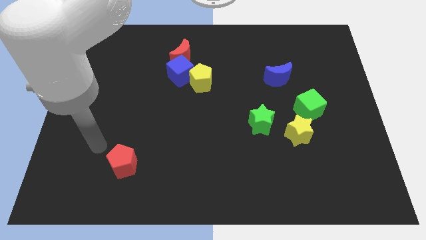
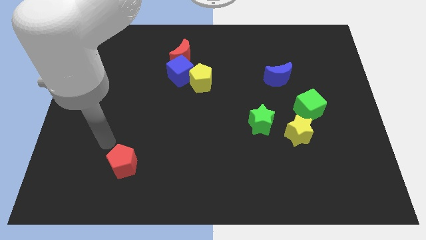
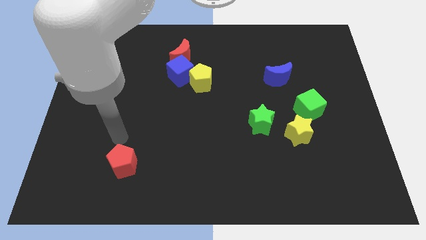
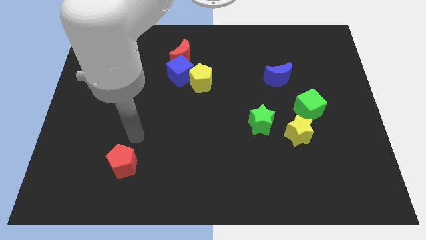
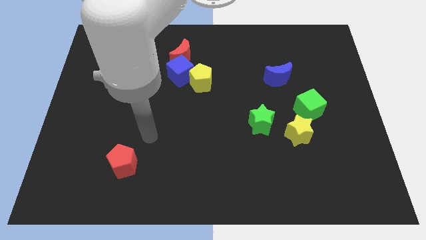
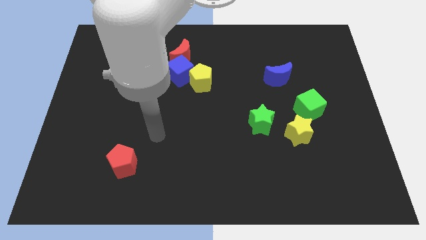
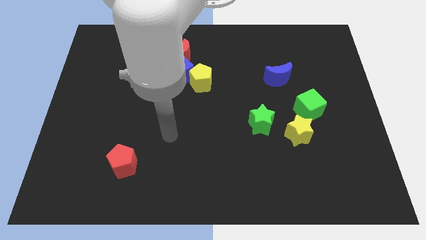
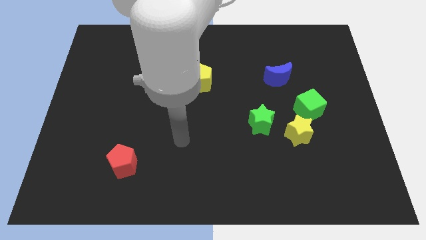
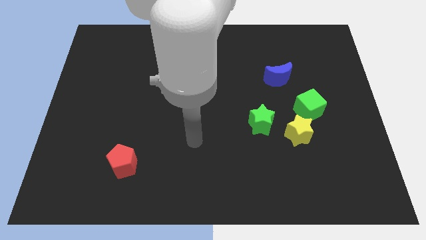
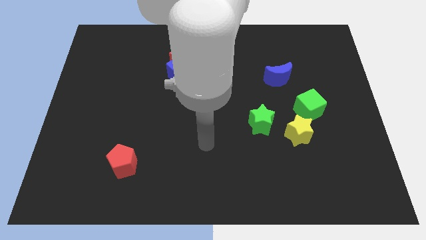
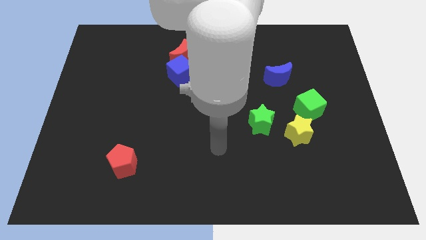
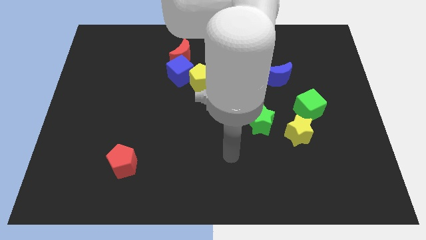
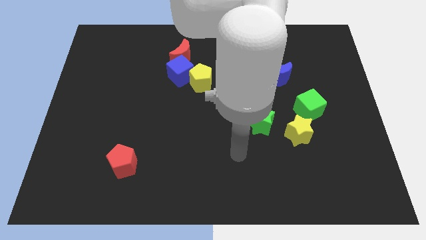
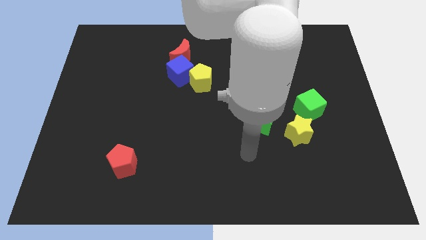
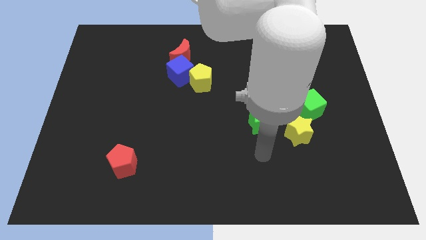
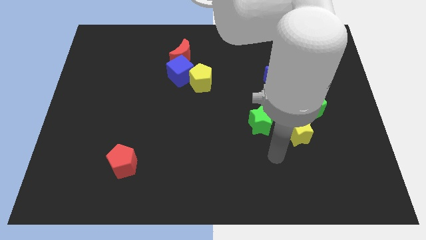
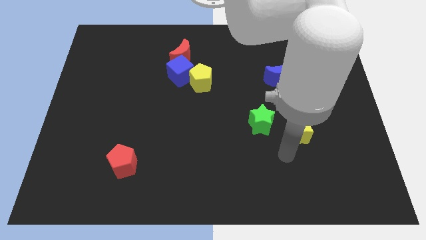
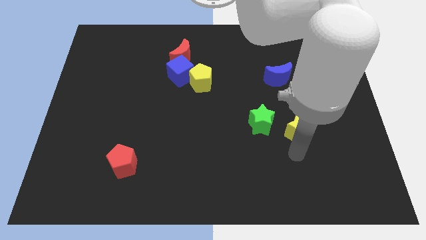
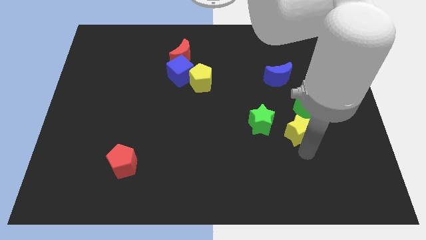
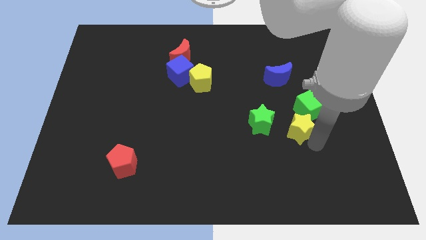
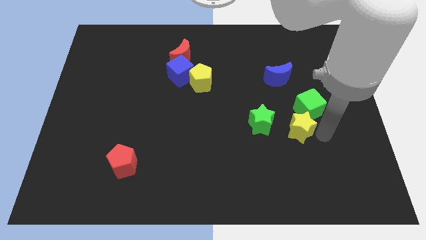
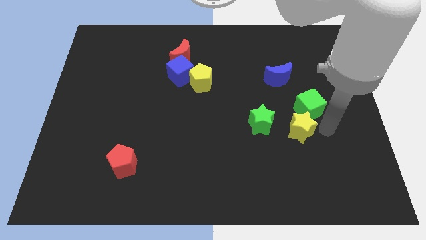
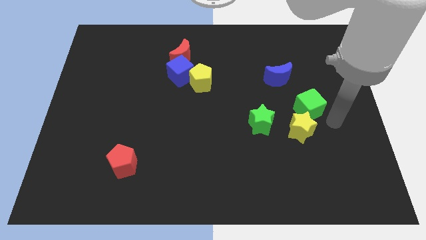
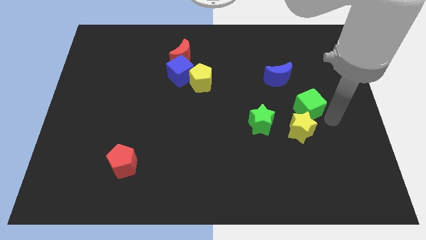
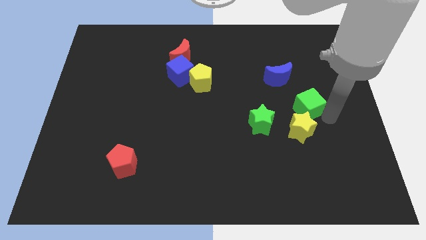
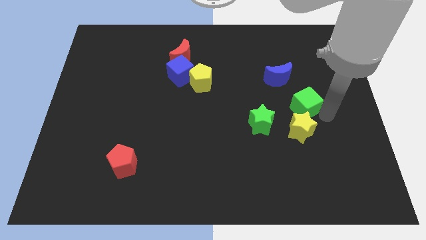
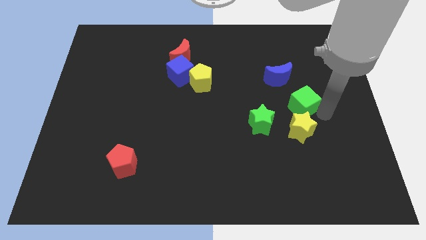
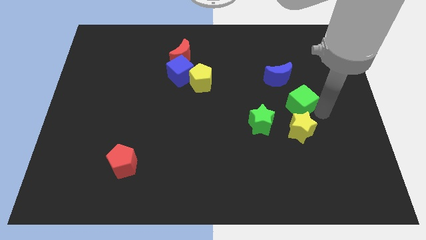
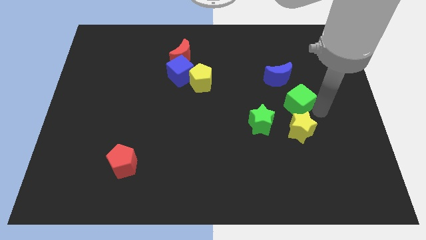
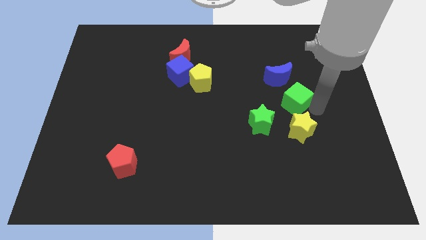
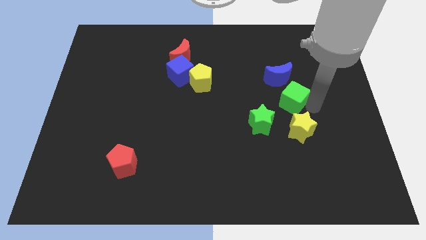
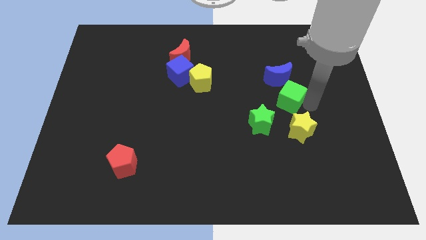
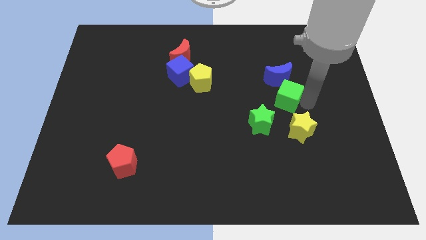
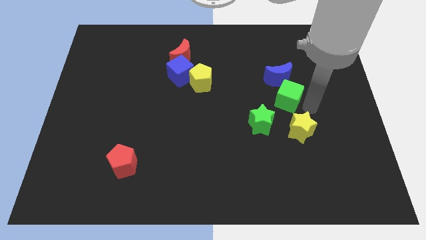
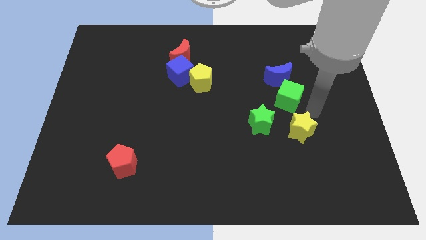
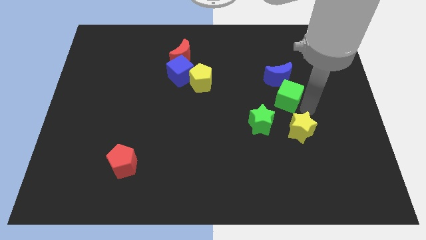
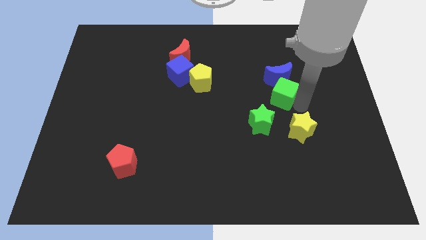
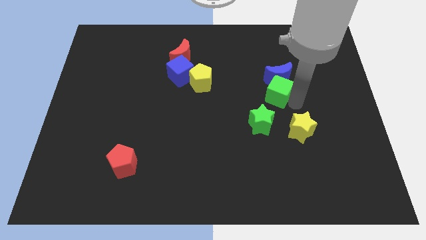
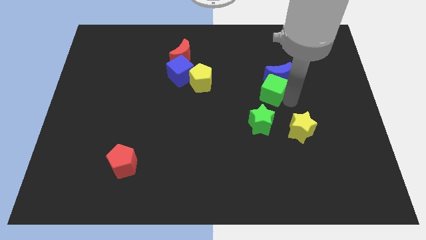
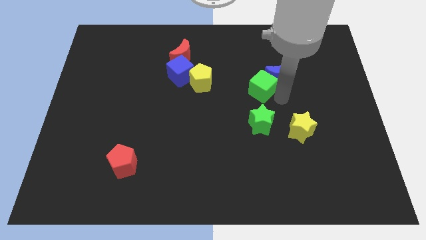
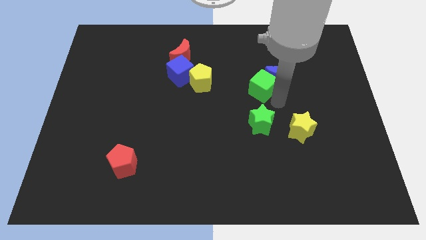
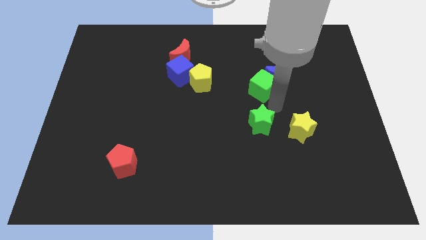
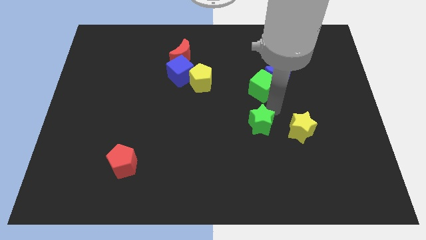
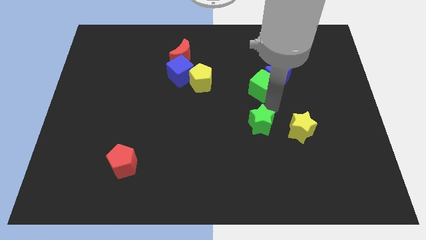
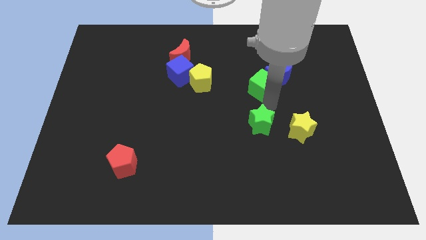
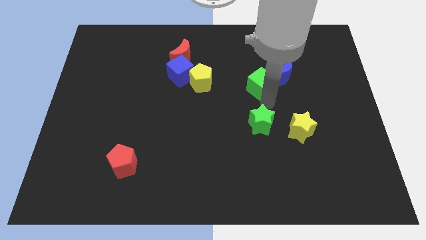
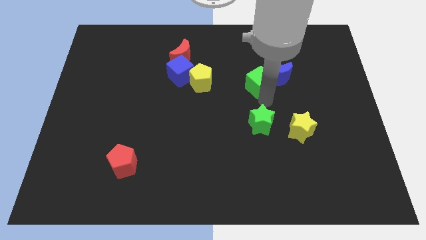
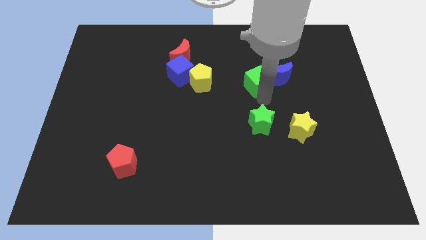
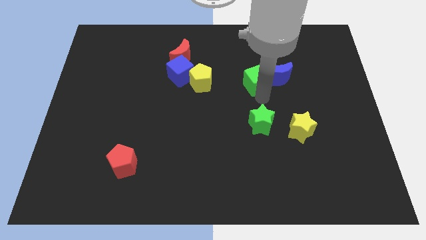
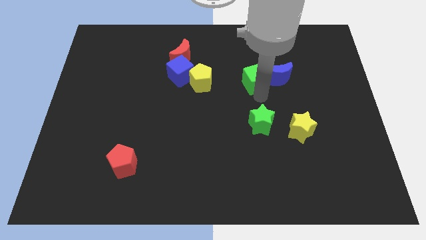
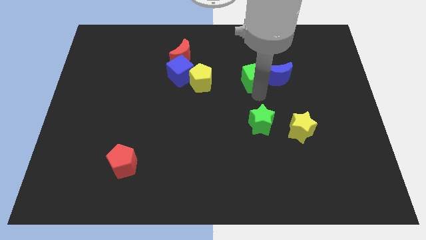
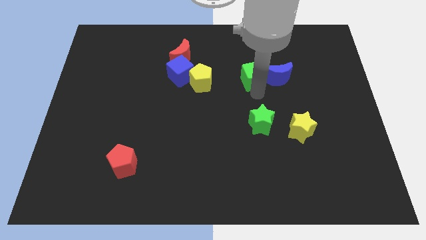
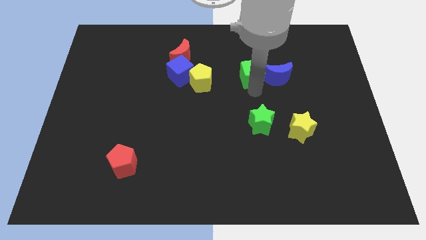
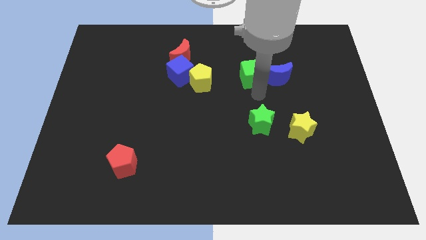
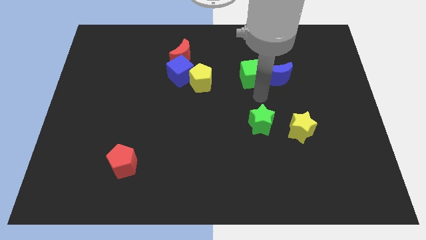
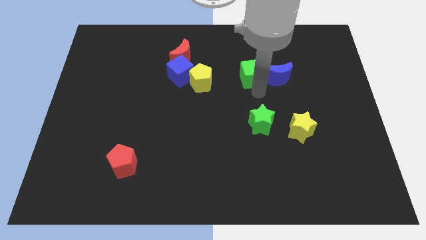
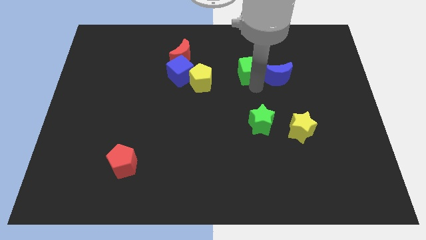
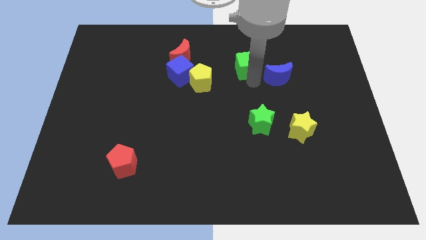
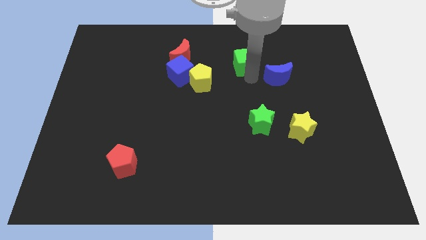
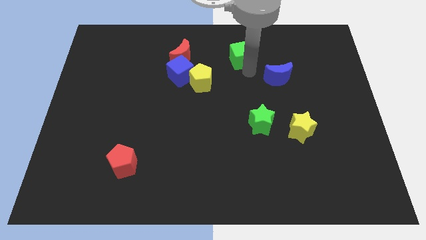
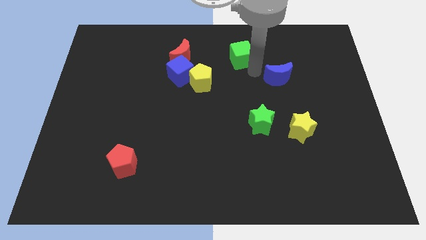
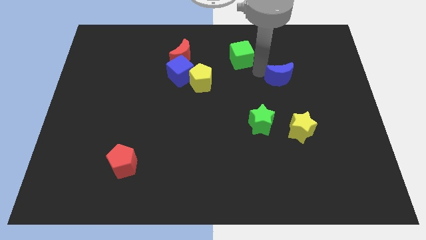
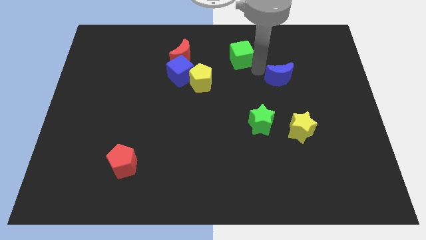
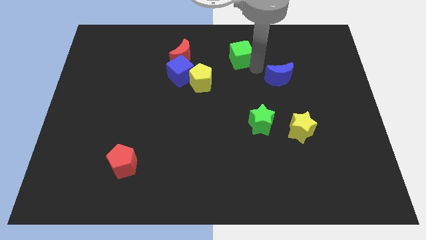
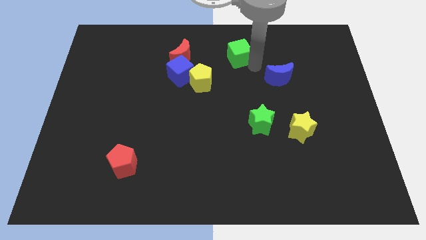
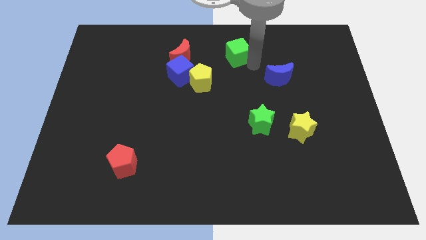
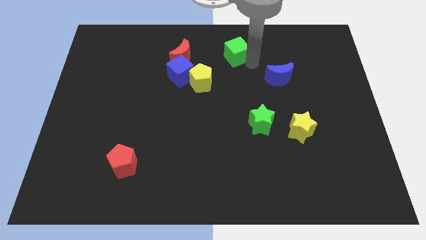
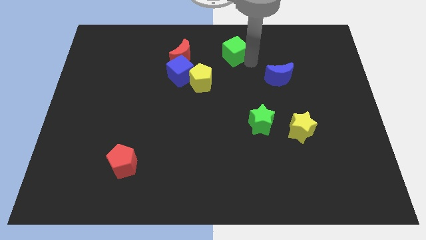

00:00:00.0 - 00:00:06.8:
slide the green cube to the towards your base
